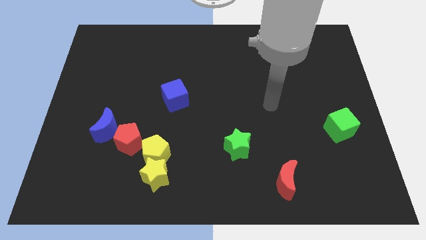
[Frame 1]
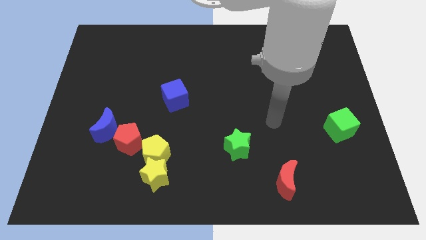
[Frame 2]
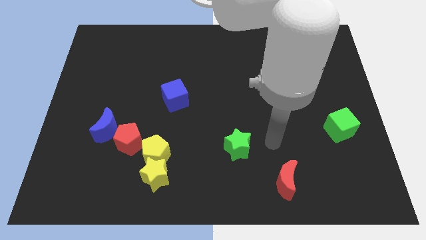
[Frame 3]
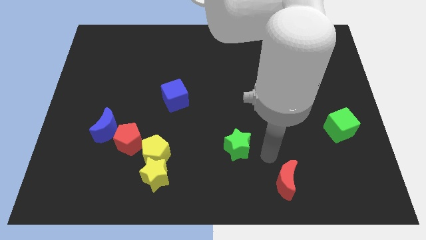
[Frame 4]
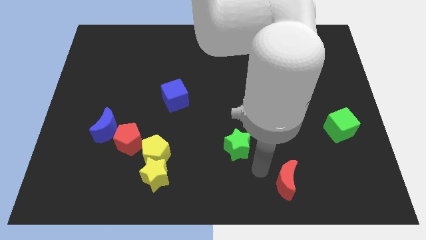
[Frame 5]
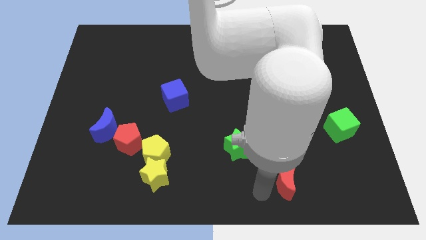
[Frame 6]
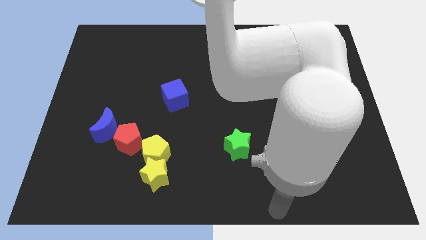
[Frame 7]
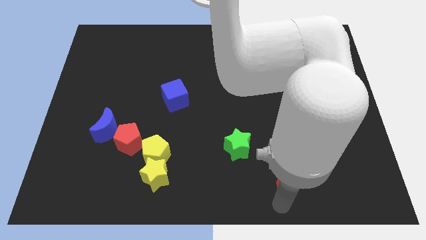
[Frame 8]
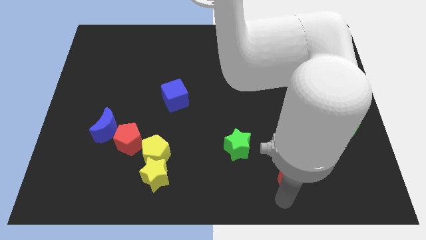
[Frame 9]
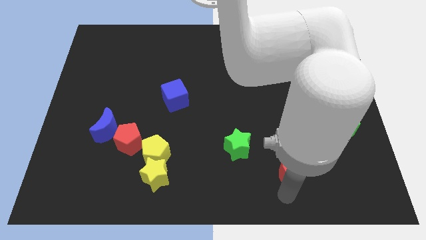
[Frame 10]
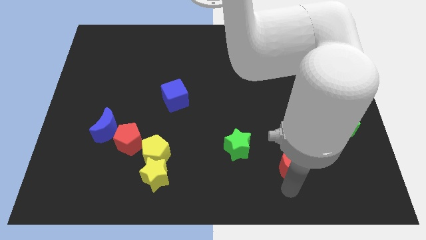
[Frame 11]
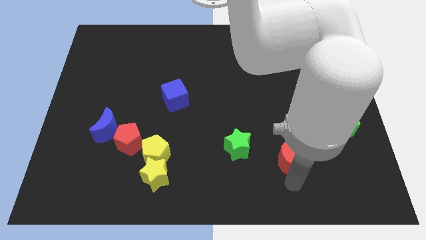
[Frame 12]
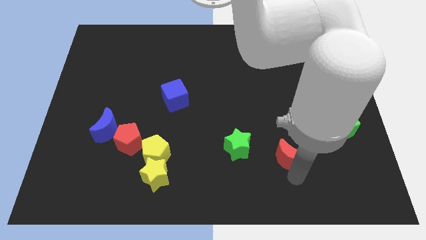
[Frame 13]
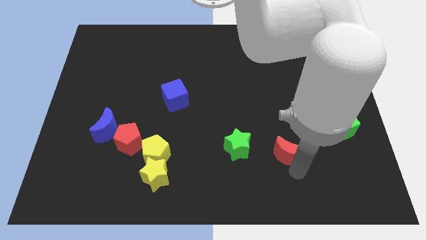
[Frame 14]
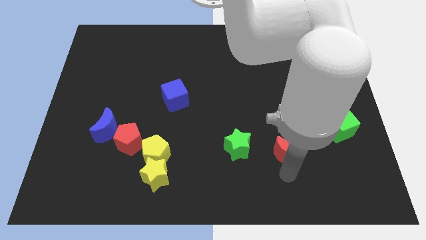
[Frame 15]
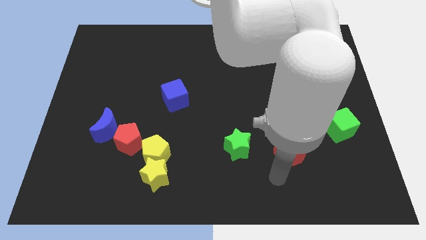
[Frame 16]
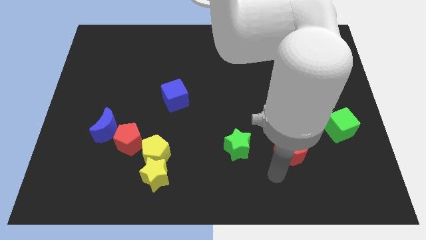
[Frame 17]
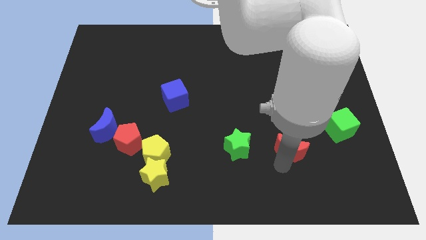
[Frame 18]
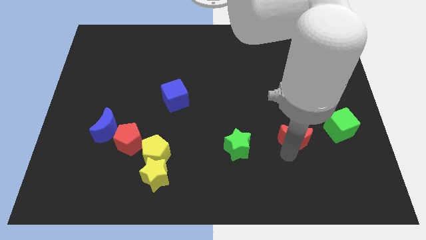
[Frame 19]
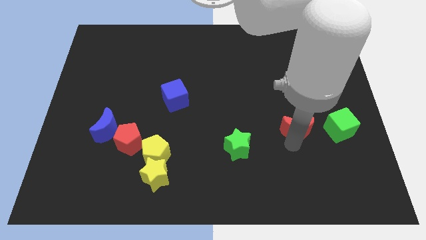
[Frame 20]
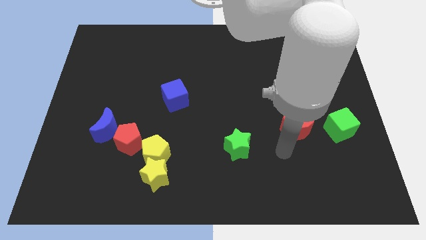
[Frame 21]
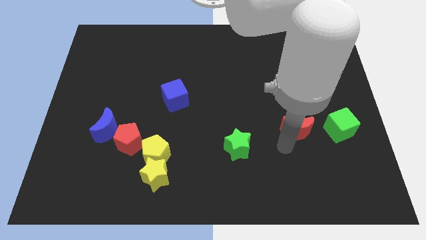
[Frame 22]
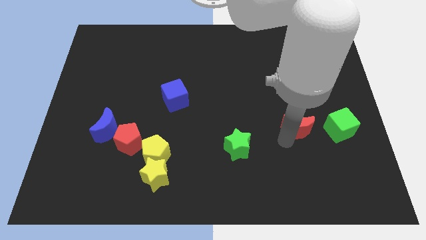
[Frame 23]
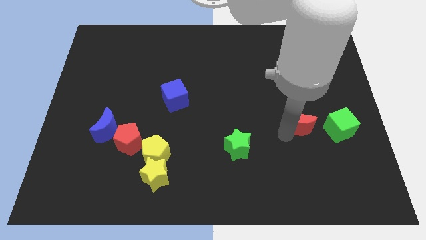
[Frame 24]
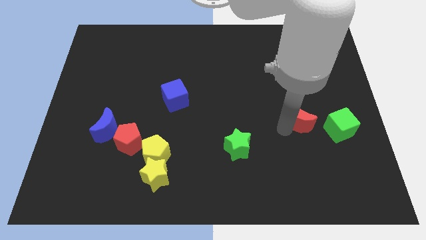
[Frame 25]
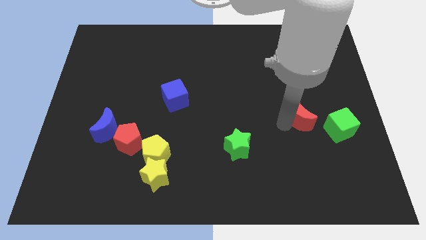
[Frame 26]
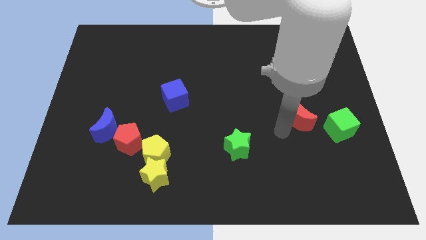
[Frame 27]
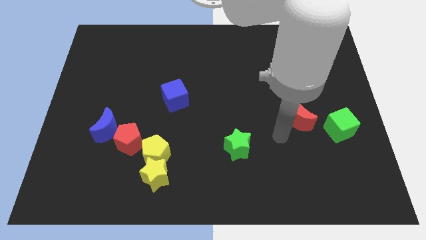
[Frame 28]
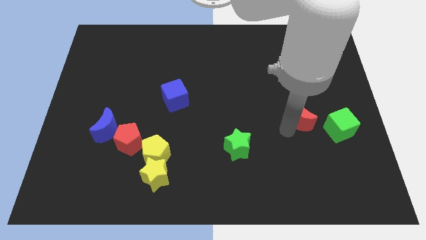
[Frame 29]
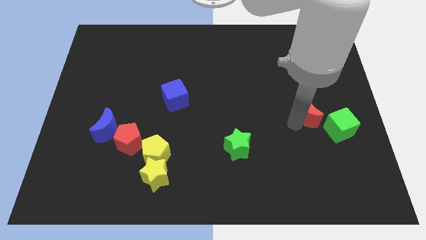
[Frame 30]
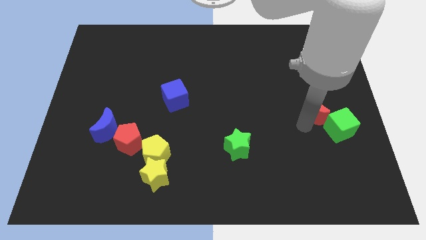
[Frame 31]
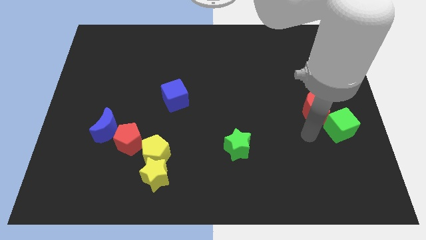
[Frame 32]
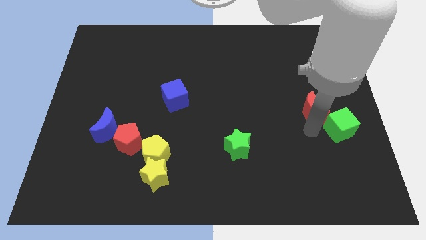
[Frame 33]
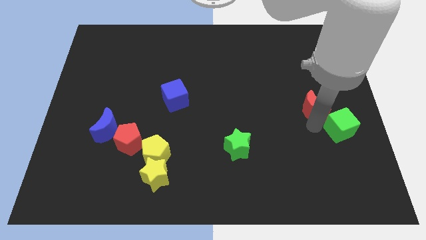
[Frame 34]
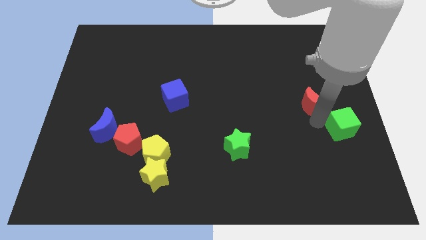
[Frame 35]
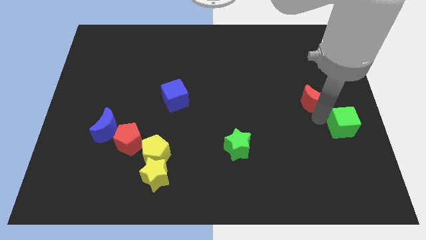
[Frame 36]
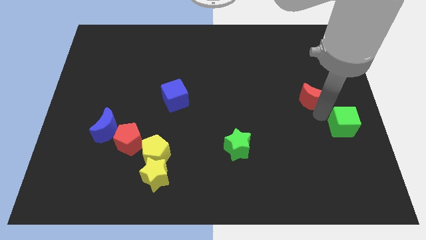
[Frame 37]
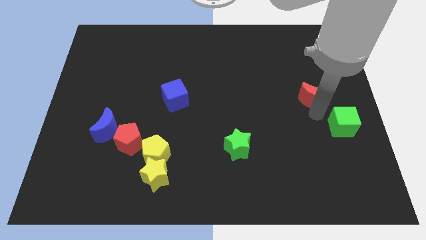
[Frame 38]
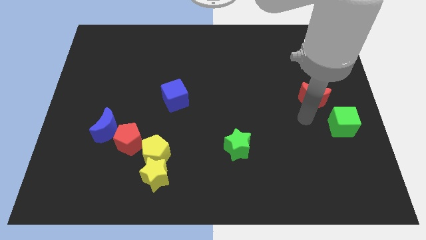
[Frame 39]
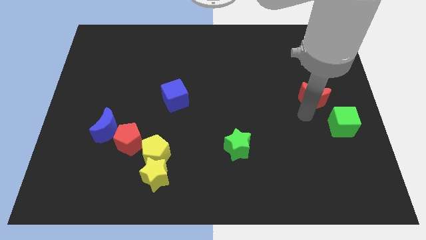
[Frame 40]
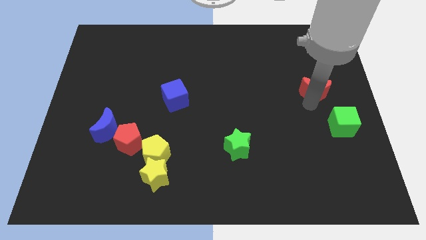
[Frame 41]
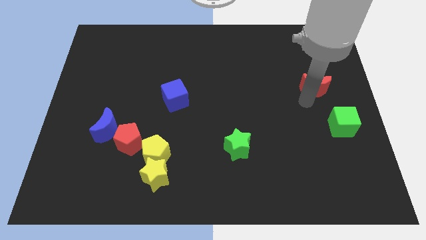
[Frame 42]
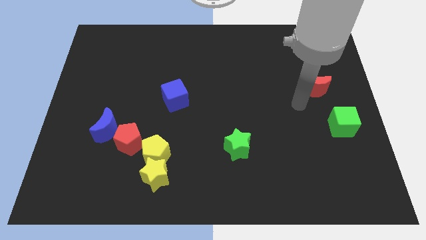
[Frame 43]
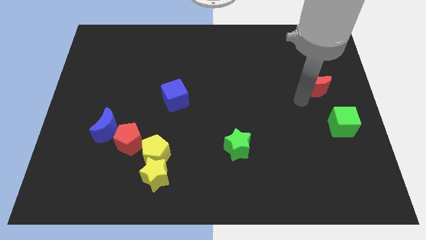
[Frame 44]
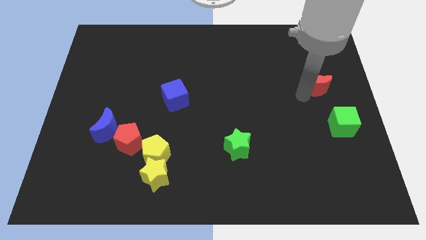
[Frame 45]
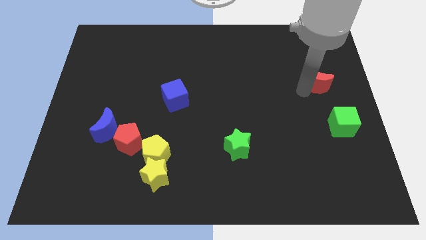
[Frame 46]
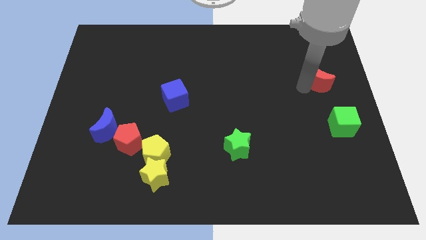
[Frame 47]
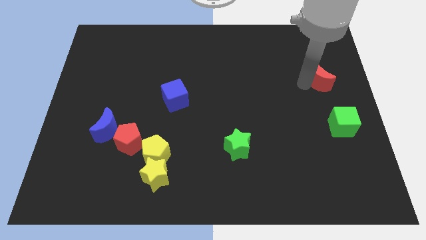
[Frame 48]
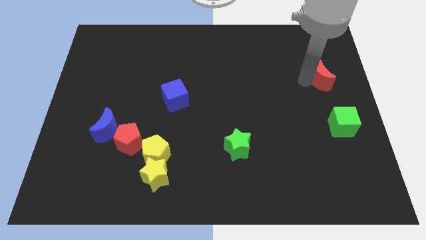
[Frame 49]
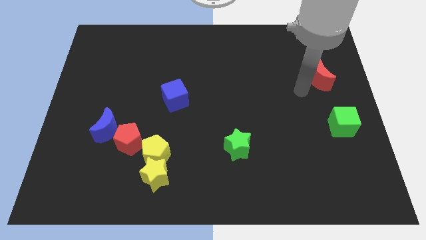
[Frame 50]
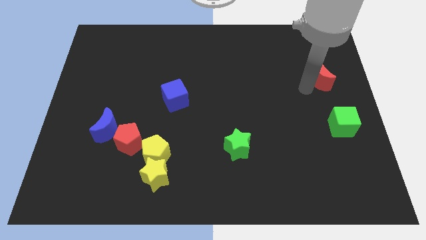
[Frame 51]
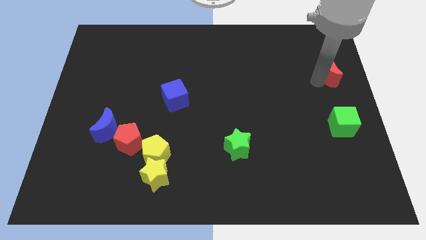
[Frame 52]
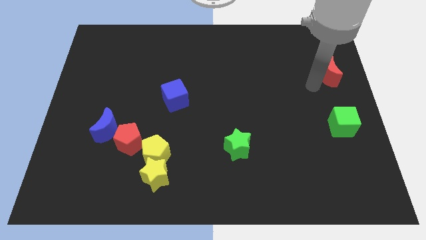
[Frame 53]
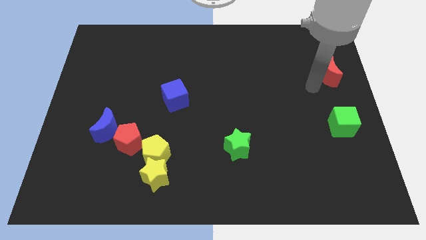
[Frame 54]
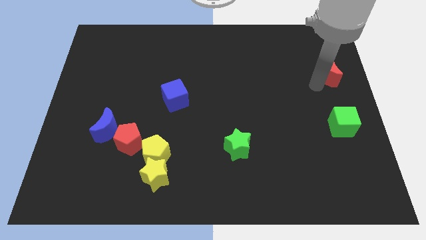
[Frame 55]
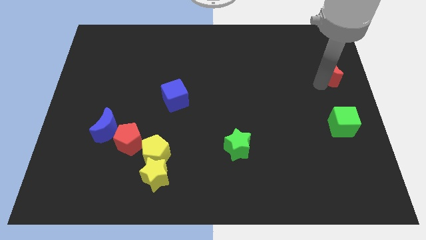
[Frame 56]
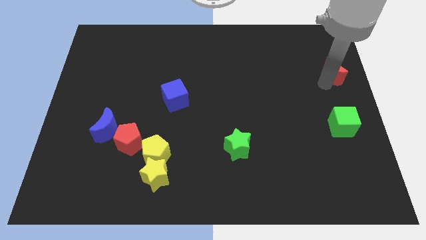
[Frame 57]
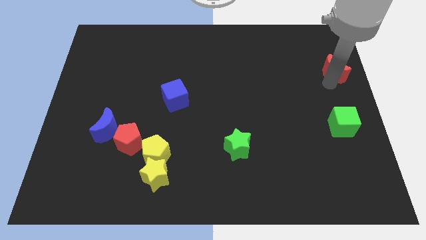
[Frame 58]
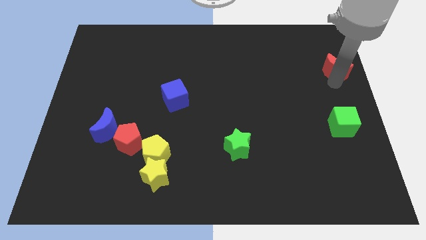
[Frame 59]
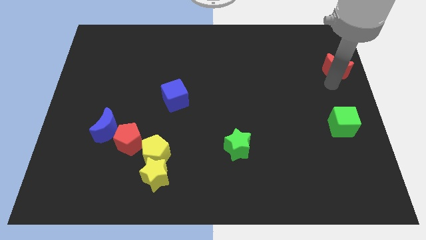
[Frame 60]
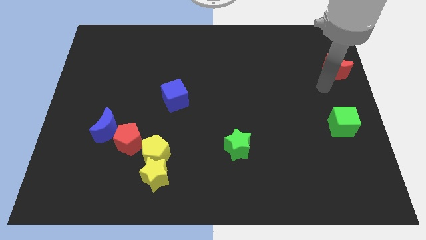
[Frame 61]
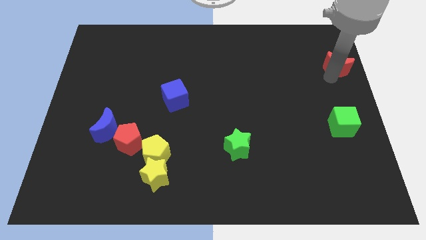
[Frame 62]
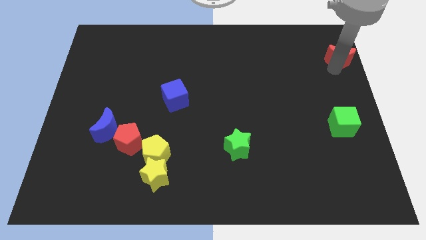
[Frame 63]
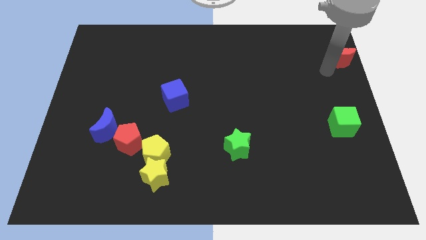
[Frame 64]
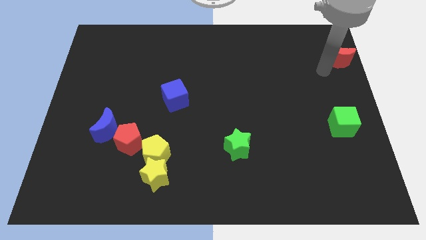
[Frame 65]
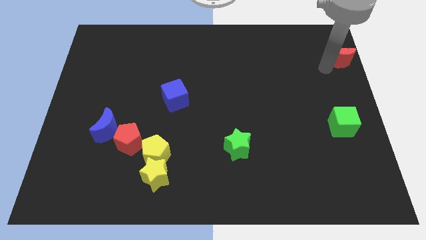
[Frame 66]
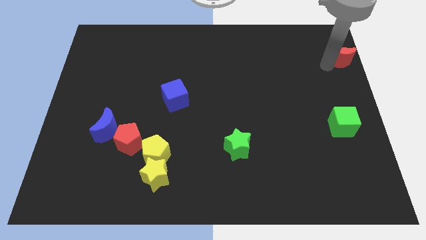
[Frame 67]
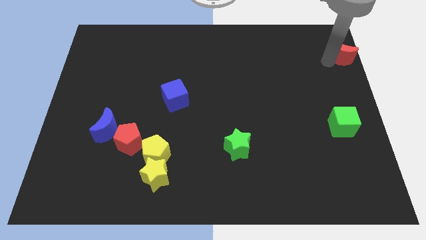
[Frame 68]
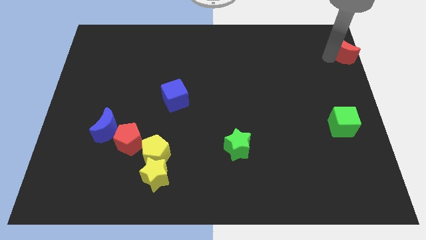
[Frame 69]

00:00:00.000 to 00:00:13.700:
put the red moon to the upper right corner

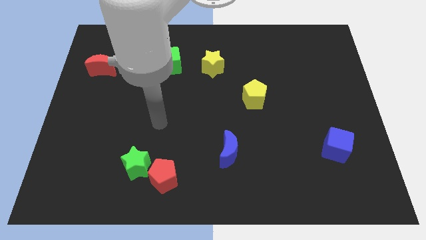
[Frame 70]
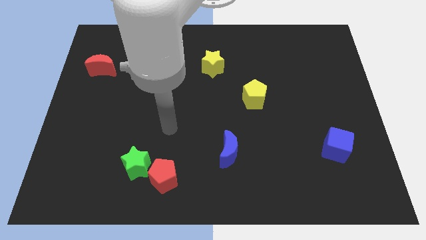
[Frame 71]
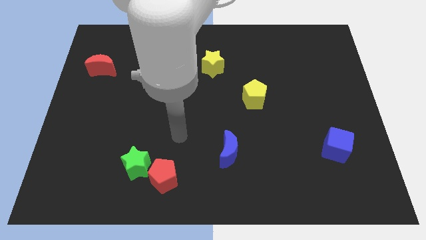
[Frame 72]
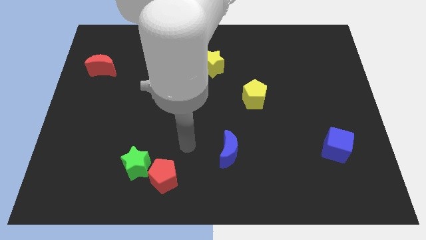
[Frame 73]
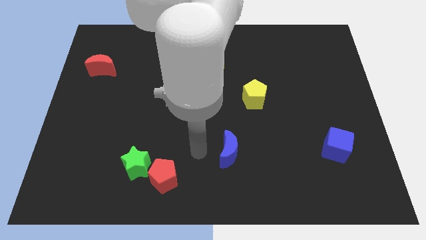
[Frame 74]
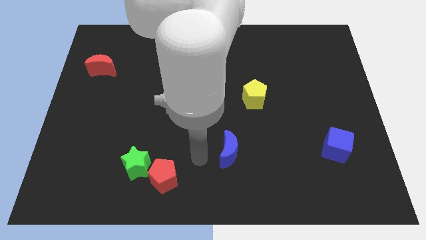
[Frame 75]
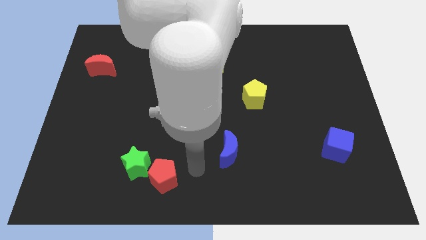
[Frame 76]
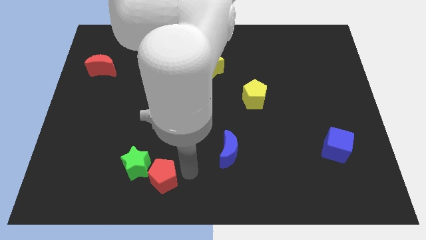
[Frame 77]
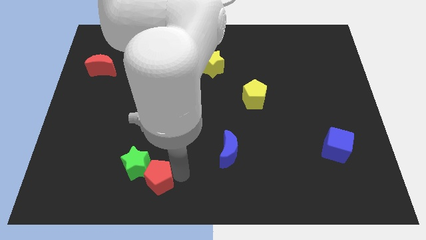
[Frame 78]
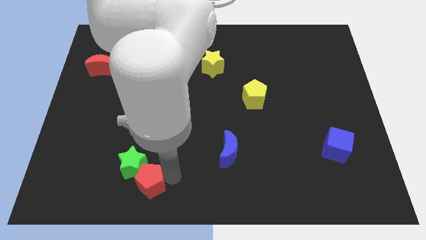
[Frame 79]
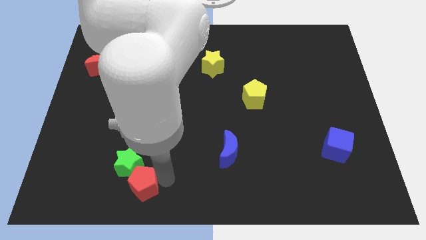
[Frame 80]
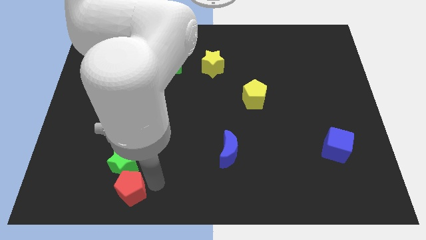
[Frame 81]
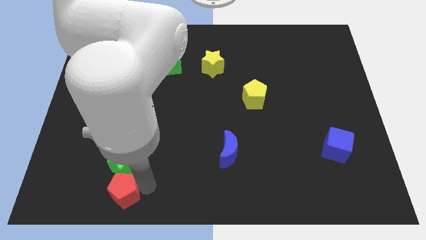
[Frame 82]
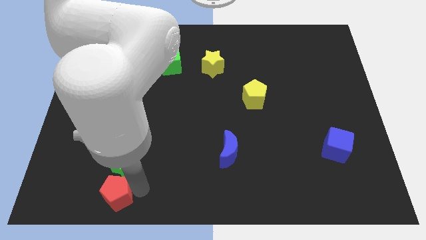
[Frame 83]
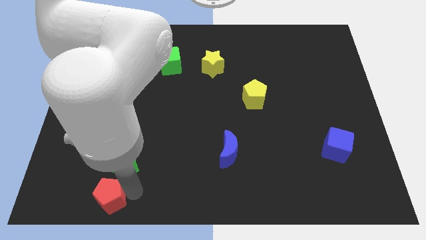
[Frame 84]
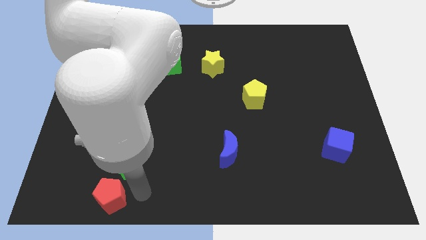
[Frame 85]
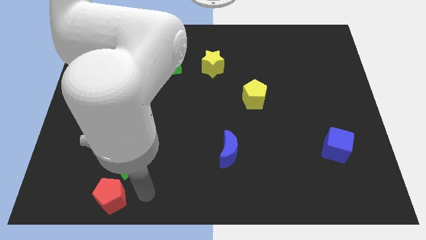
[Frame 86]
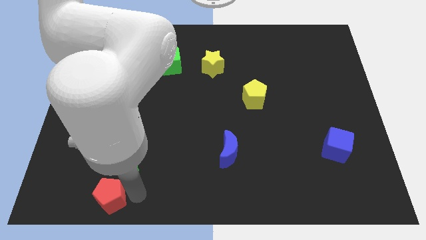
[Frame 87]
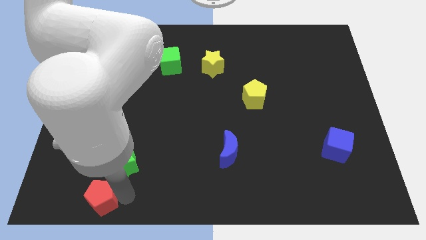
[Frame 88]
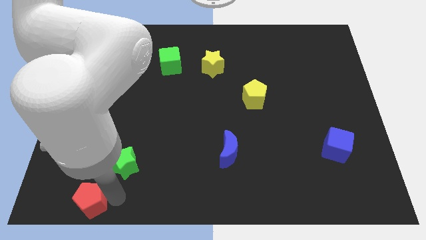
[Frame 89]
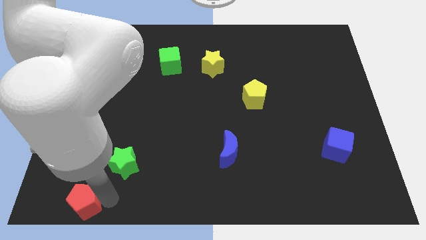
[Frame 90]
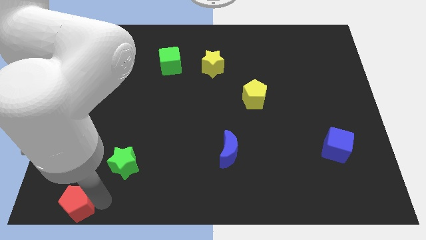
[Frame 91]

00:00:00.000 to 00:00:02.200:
put the red pentagon to the lower left corner
